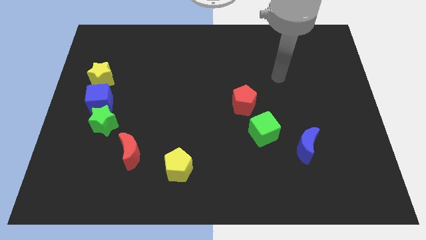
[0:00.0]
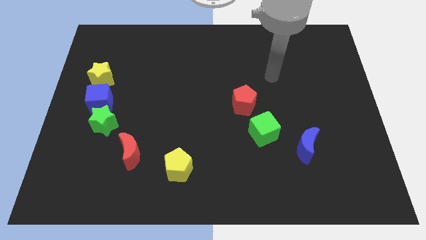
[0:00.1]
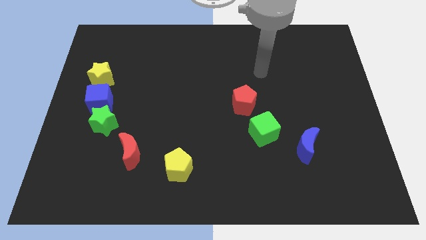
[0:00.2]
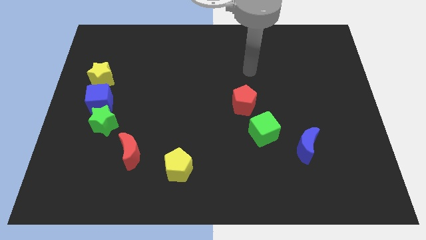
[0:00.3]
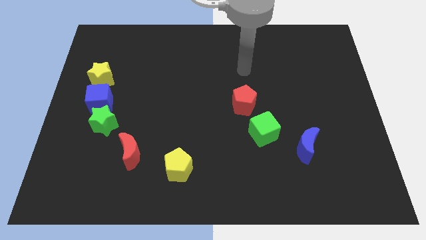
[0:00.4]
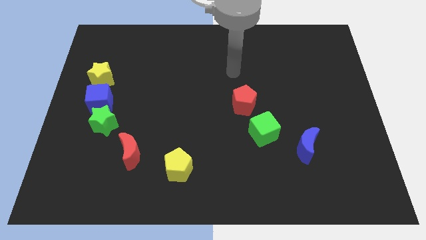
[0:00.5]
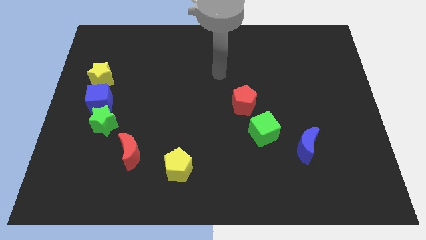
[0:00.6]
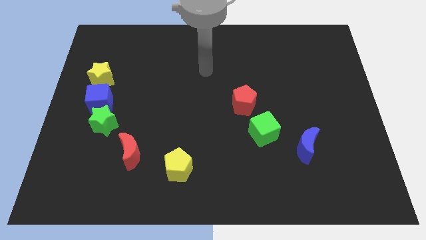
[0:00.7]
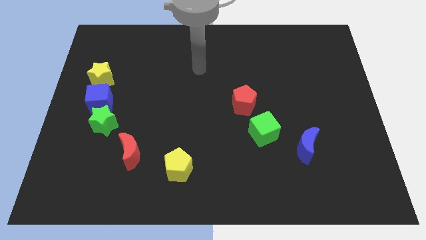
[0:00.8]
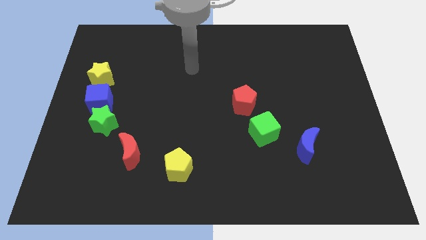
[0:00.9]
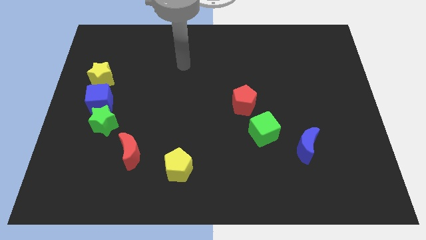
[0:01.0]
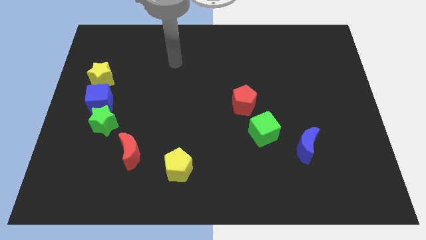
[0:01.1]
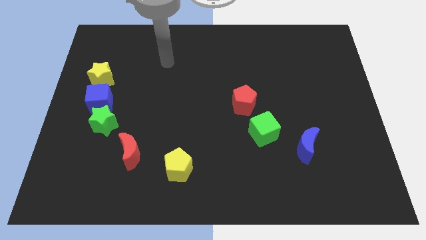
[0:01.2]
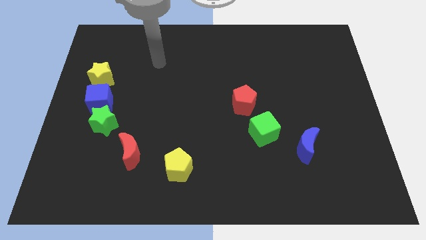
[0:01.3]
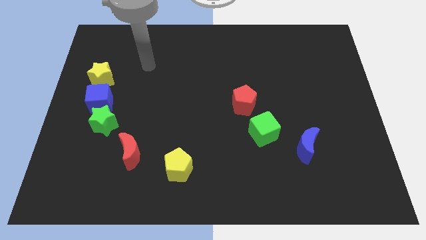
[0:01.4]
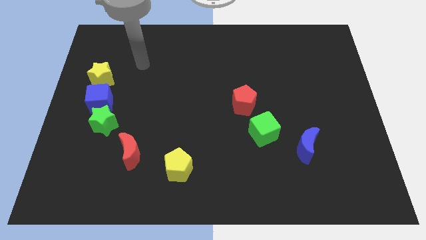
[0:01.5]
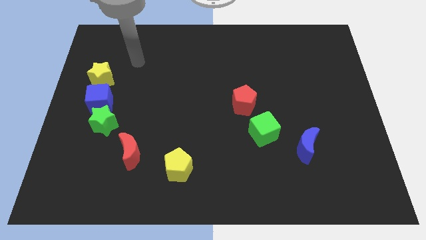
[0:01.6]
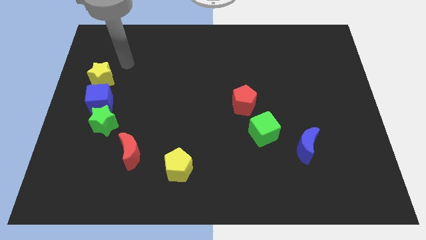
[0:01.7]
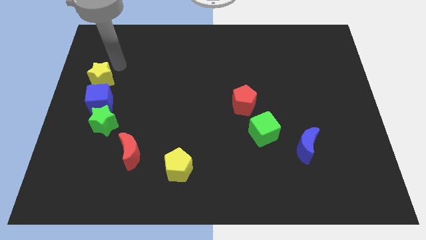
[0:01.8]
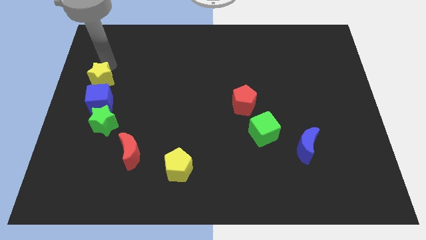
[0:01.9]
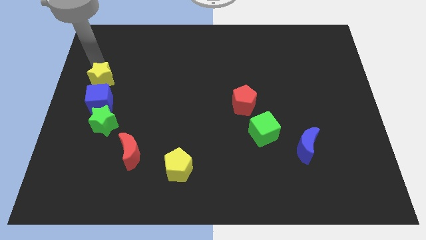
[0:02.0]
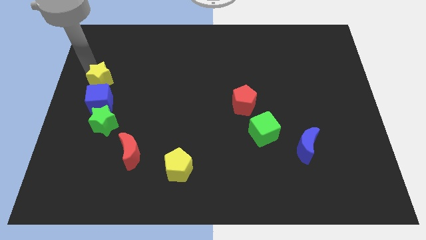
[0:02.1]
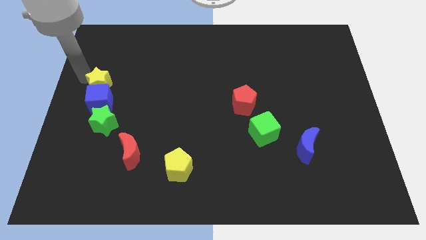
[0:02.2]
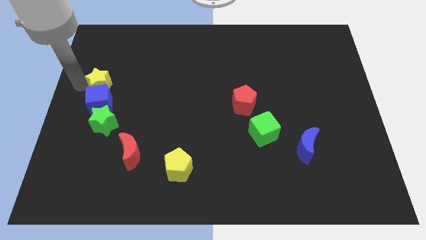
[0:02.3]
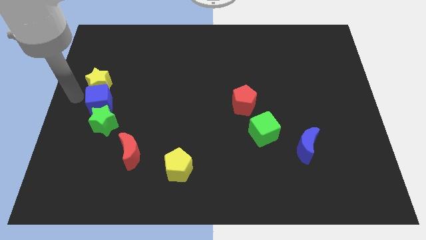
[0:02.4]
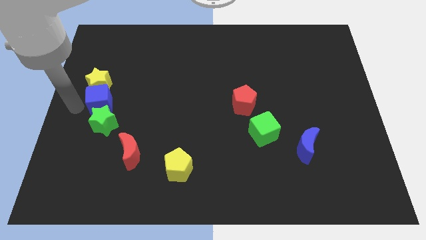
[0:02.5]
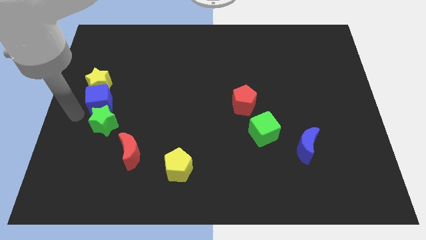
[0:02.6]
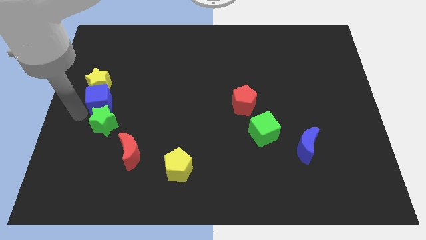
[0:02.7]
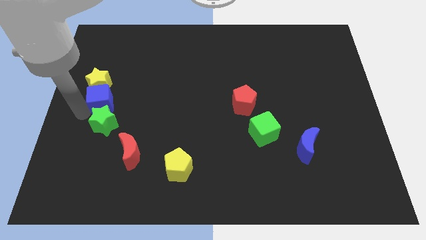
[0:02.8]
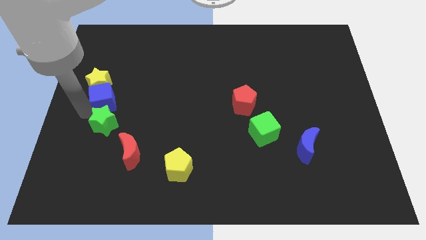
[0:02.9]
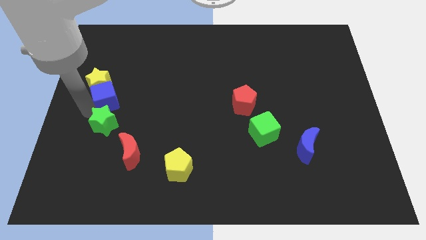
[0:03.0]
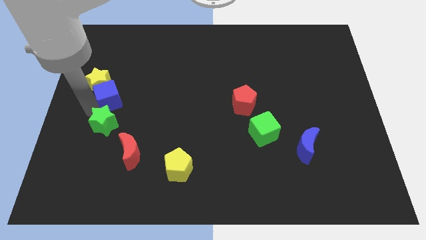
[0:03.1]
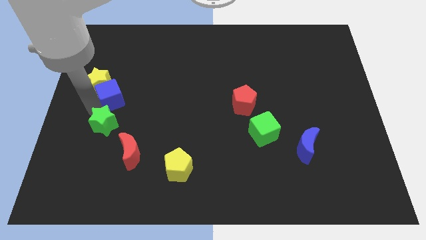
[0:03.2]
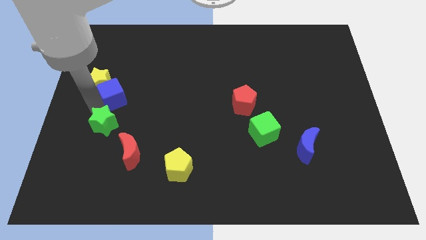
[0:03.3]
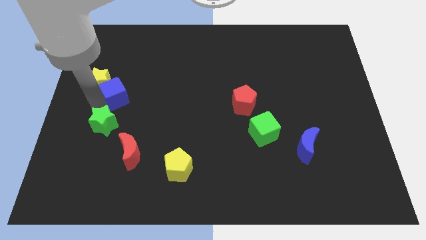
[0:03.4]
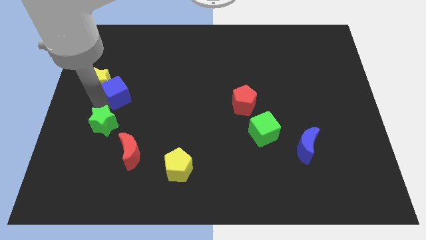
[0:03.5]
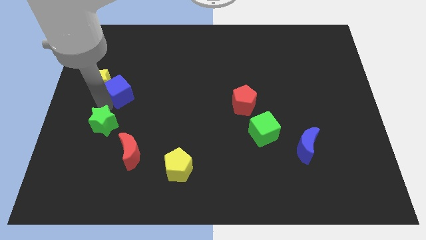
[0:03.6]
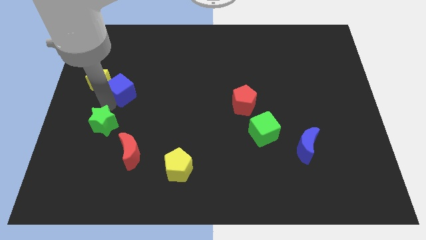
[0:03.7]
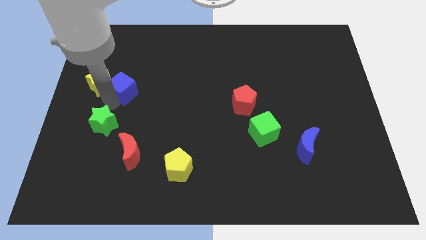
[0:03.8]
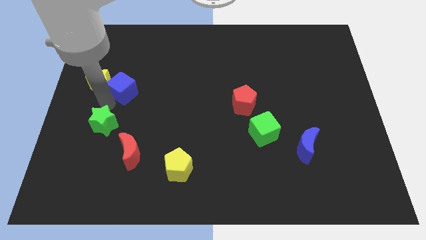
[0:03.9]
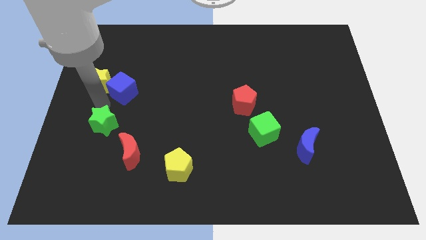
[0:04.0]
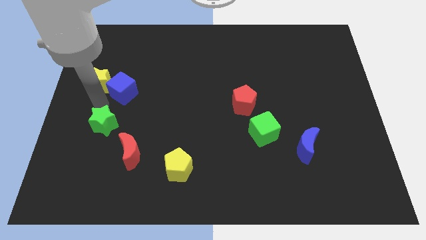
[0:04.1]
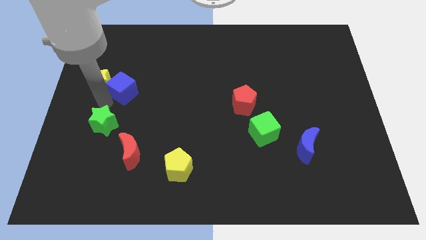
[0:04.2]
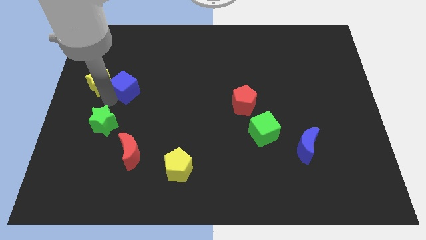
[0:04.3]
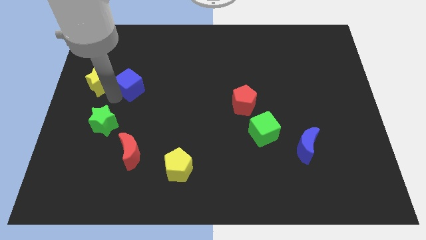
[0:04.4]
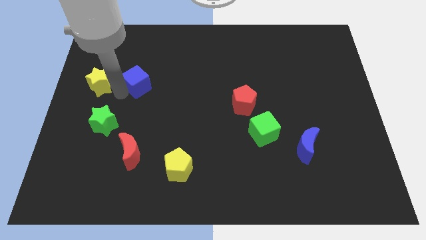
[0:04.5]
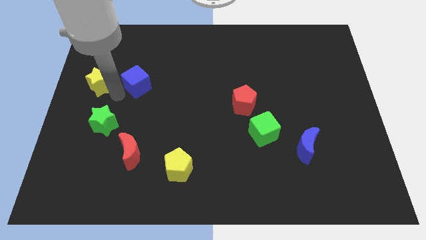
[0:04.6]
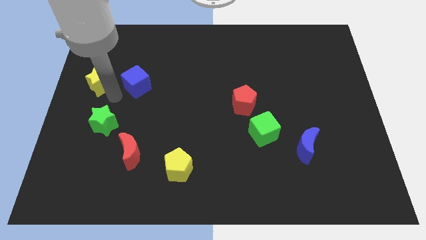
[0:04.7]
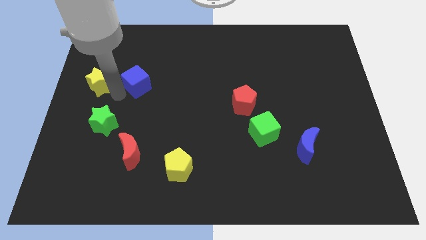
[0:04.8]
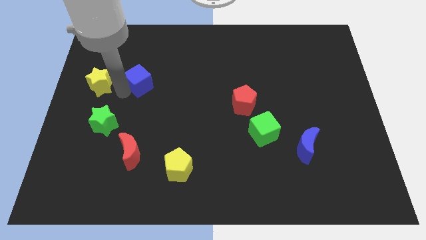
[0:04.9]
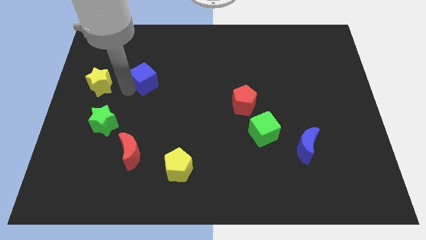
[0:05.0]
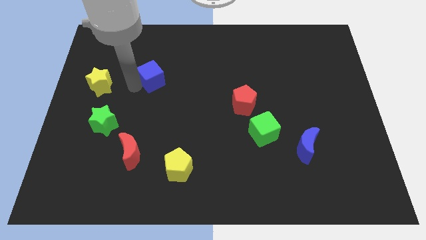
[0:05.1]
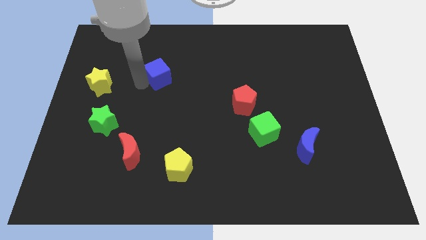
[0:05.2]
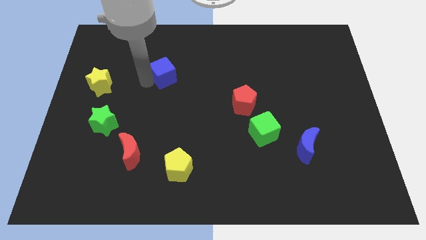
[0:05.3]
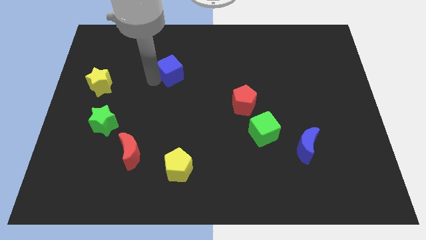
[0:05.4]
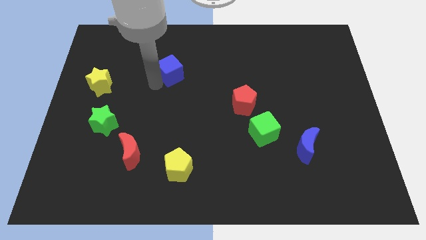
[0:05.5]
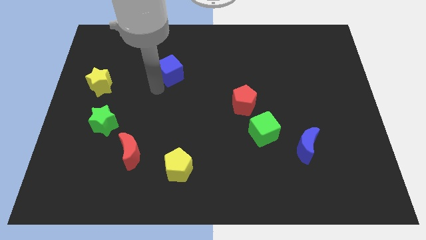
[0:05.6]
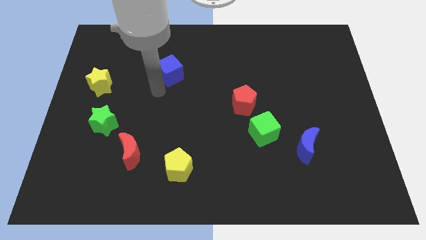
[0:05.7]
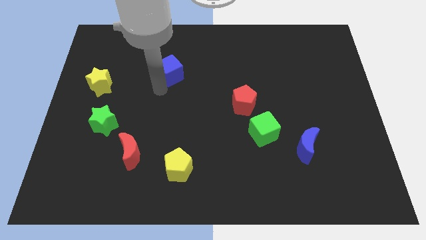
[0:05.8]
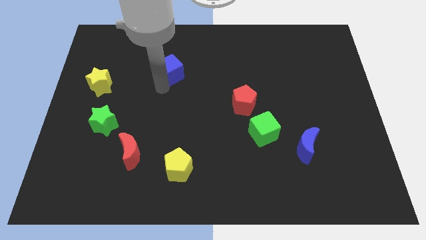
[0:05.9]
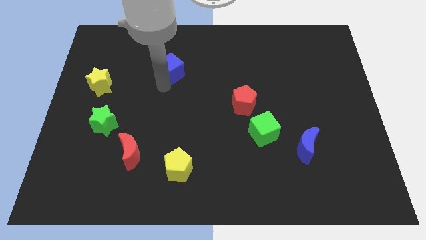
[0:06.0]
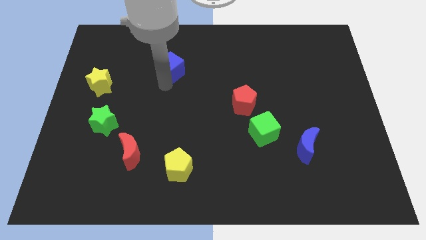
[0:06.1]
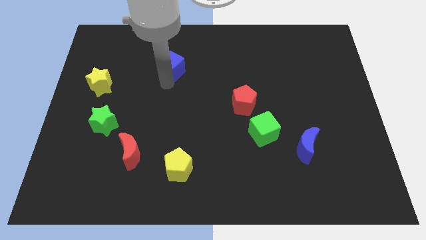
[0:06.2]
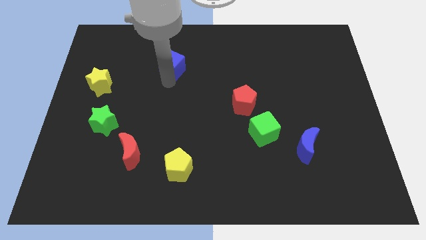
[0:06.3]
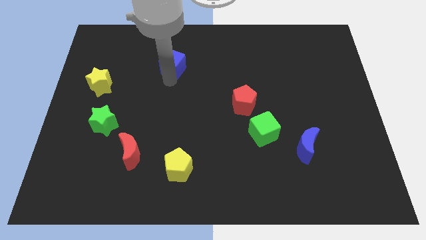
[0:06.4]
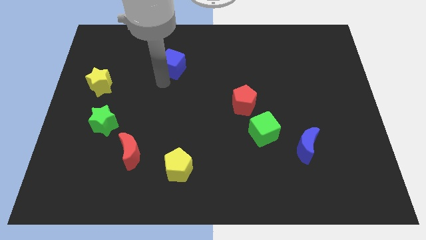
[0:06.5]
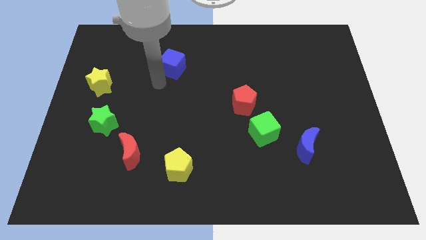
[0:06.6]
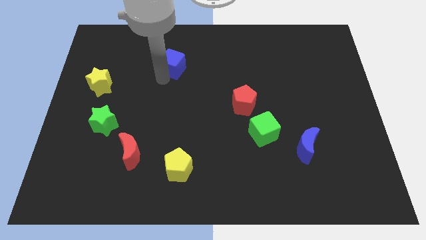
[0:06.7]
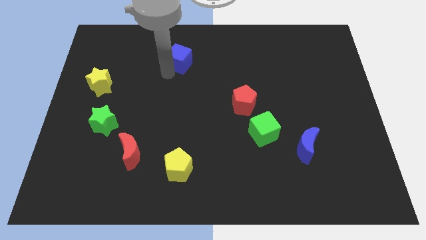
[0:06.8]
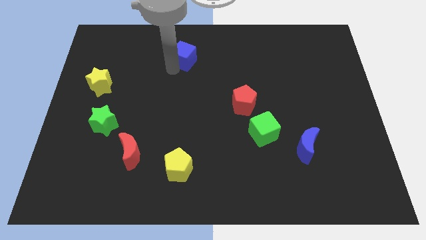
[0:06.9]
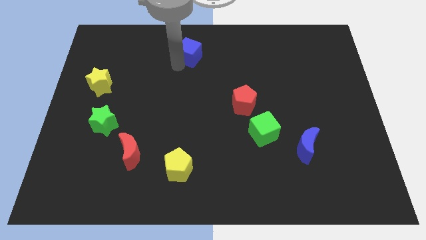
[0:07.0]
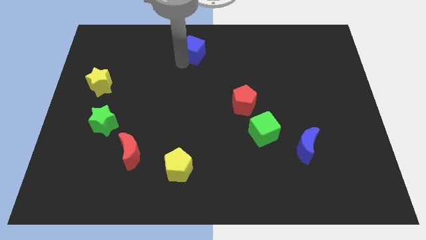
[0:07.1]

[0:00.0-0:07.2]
move the blue cube to the top
